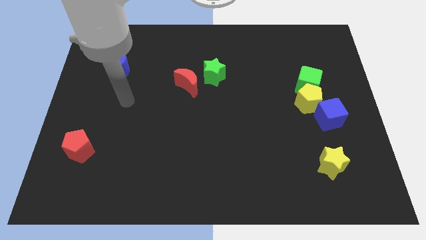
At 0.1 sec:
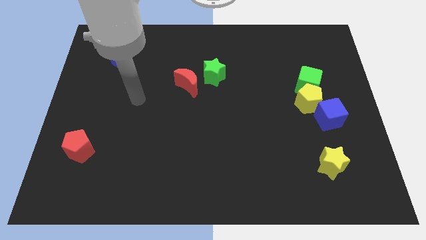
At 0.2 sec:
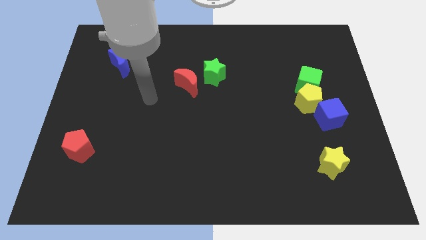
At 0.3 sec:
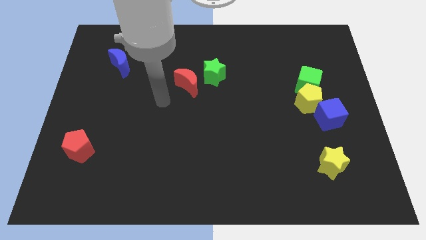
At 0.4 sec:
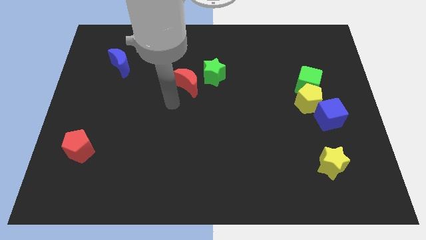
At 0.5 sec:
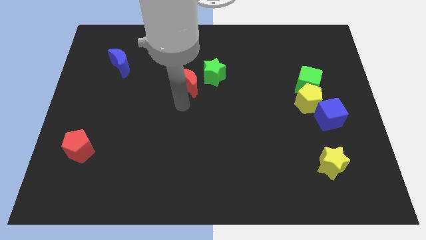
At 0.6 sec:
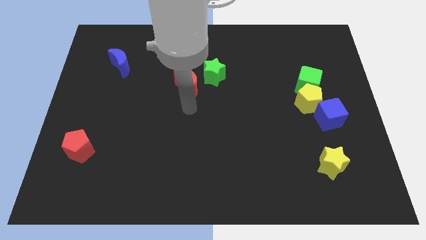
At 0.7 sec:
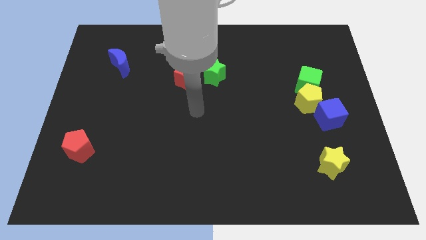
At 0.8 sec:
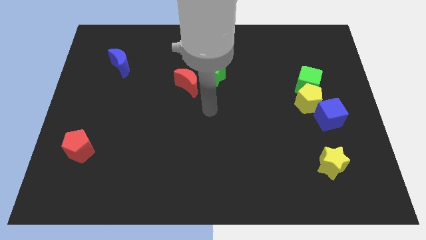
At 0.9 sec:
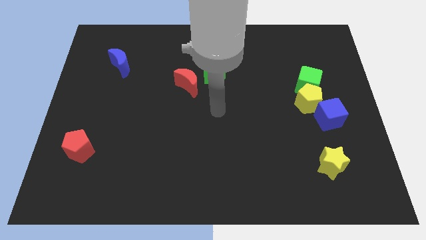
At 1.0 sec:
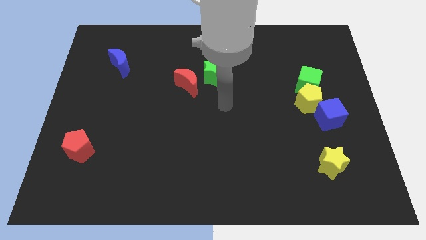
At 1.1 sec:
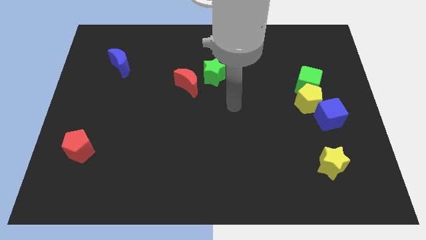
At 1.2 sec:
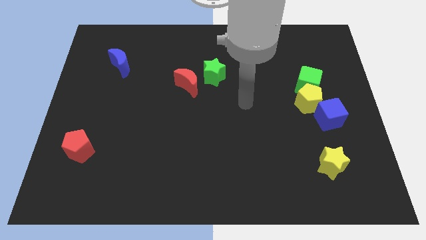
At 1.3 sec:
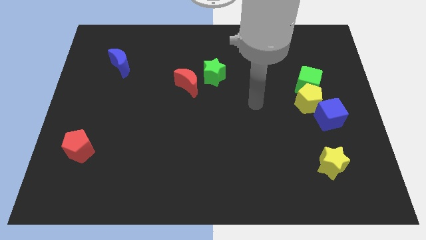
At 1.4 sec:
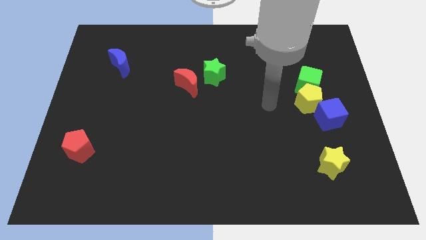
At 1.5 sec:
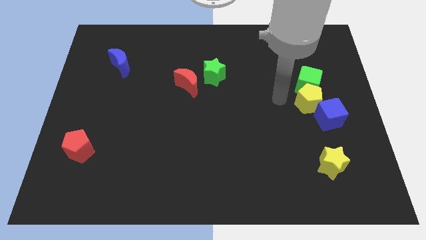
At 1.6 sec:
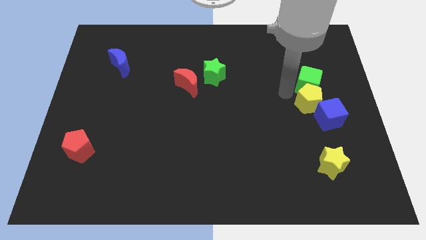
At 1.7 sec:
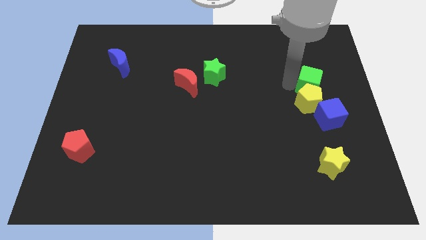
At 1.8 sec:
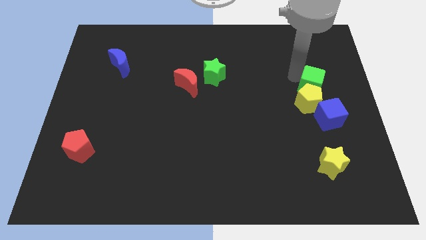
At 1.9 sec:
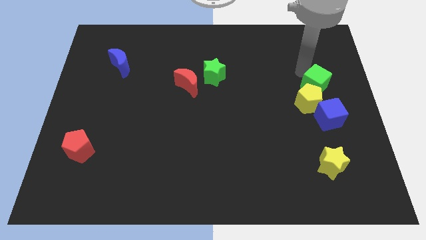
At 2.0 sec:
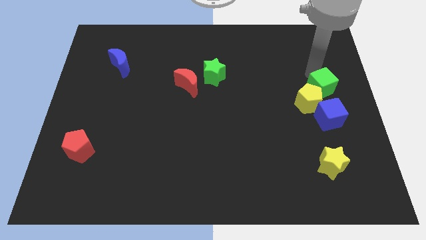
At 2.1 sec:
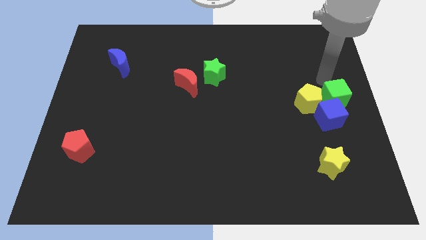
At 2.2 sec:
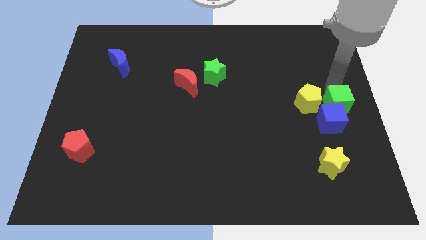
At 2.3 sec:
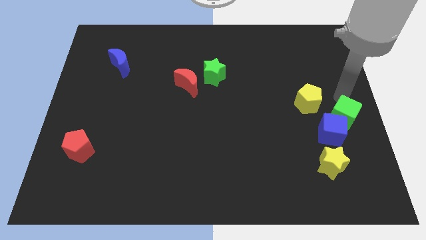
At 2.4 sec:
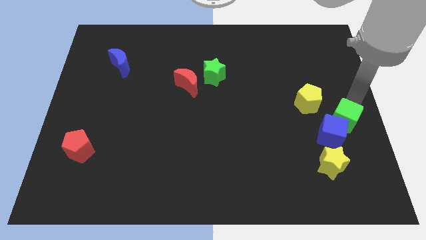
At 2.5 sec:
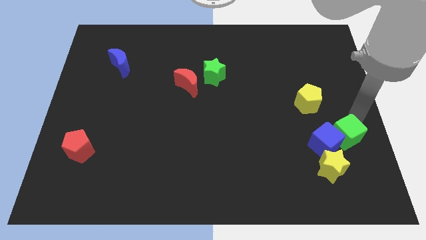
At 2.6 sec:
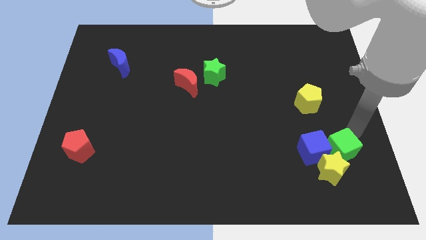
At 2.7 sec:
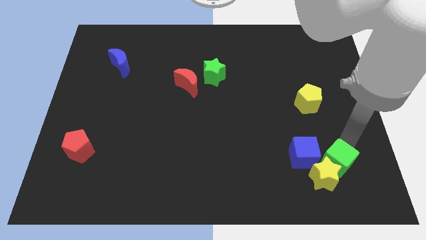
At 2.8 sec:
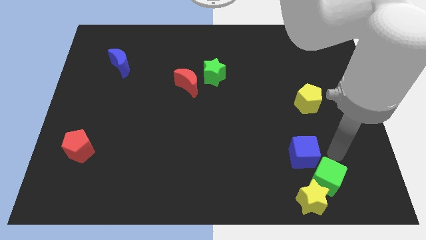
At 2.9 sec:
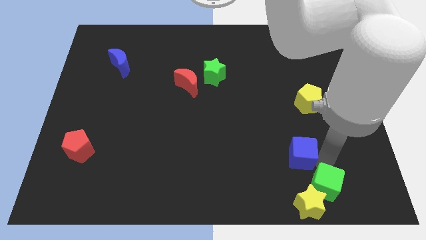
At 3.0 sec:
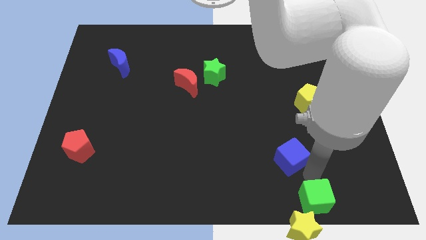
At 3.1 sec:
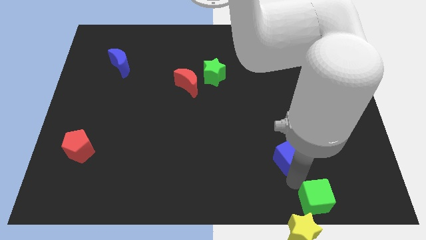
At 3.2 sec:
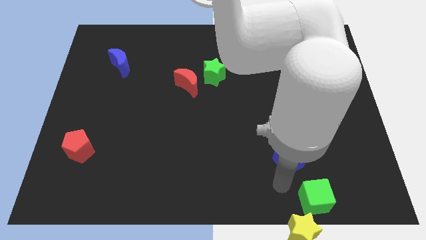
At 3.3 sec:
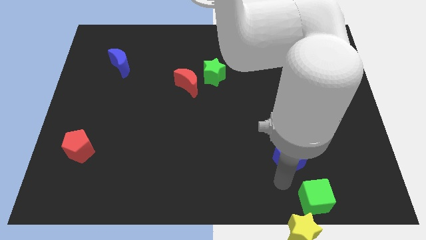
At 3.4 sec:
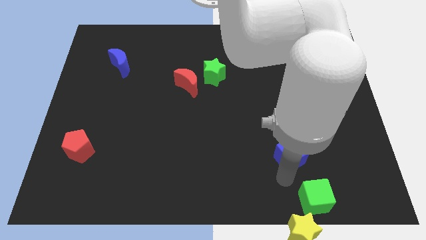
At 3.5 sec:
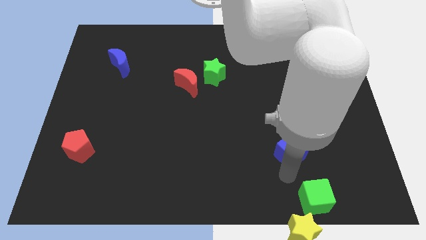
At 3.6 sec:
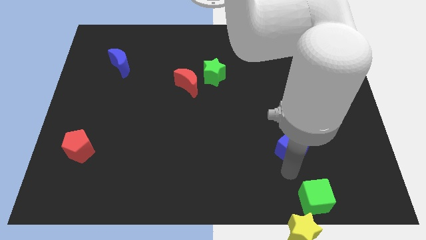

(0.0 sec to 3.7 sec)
slightly move the blue cube left

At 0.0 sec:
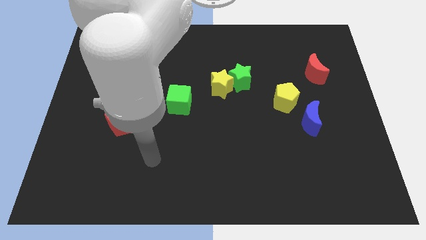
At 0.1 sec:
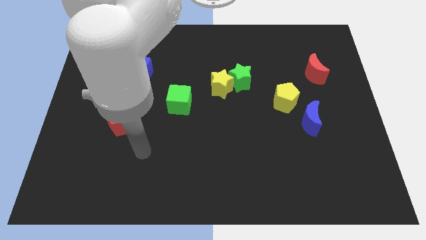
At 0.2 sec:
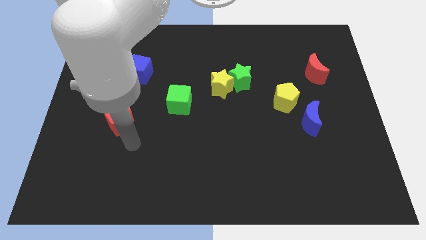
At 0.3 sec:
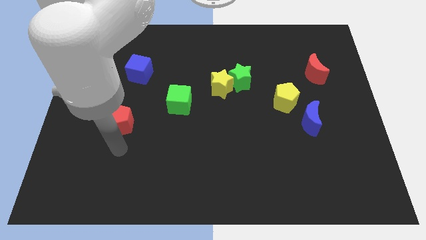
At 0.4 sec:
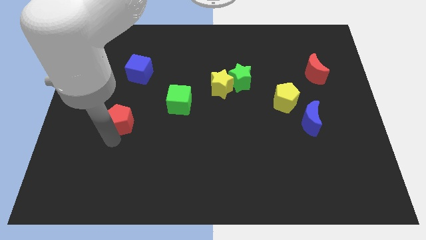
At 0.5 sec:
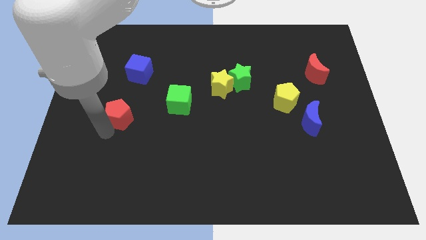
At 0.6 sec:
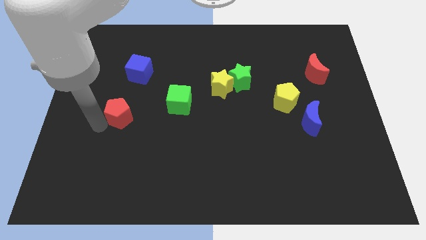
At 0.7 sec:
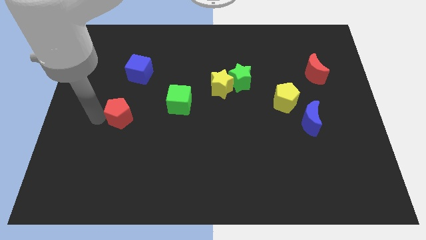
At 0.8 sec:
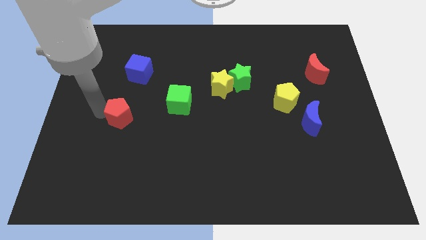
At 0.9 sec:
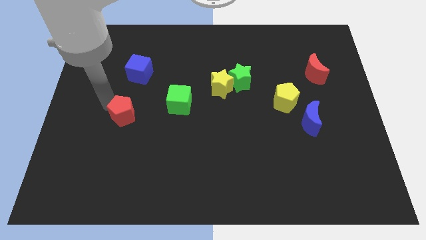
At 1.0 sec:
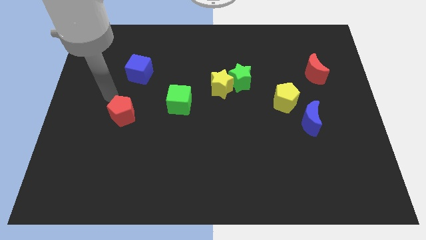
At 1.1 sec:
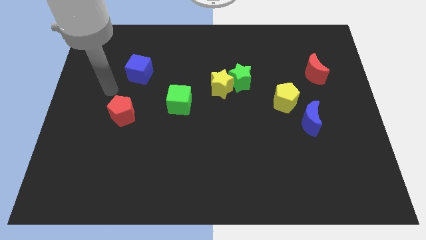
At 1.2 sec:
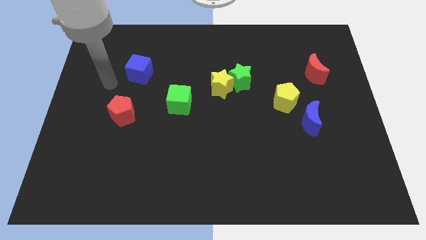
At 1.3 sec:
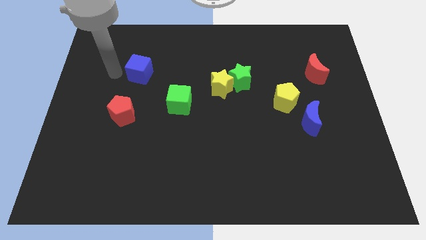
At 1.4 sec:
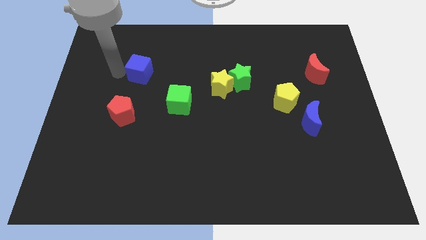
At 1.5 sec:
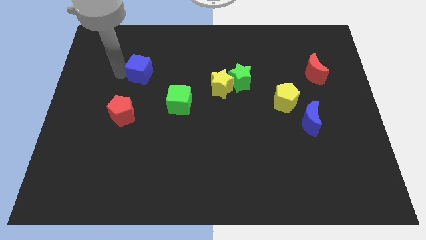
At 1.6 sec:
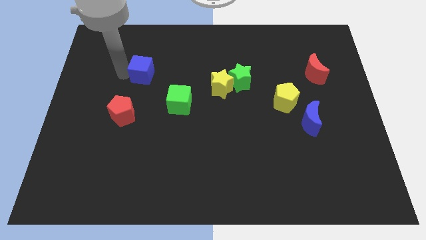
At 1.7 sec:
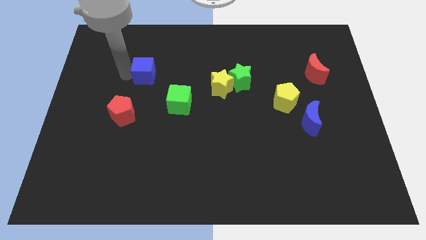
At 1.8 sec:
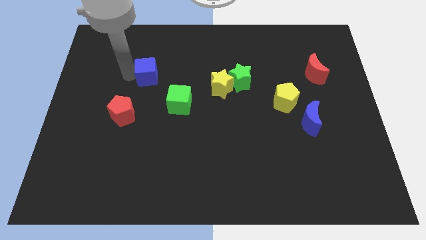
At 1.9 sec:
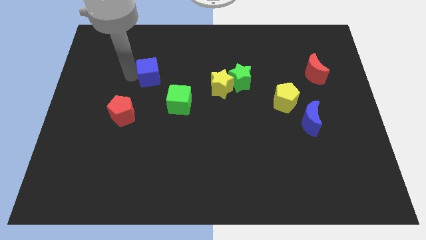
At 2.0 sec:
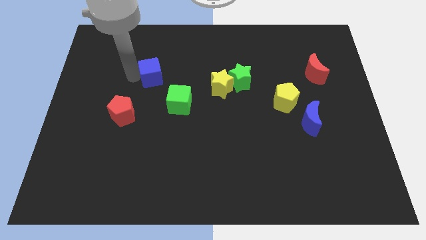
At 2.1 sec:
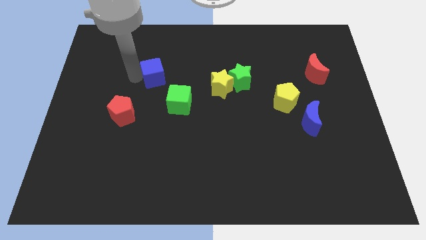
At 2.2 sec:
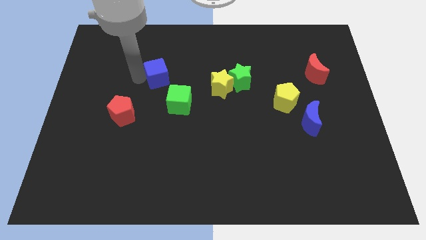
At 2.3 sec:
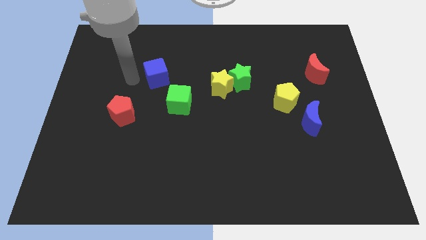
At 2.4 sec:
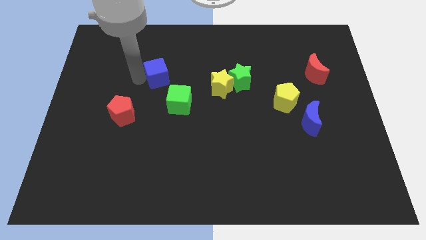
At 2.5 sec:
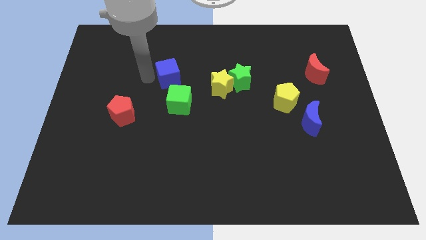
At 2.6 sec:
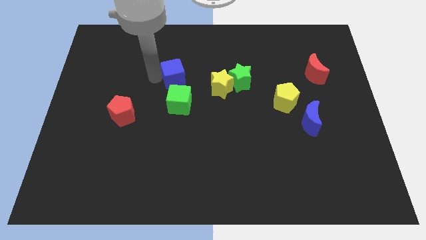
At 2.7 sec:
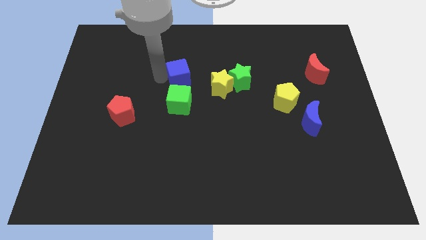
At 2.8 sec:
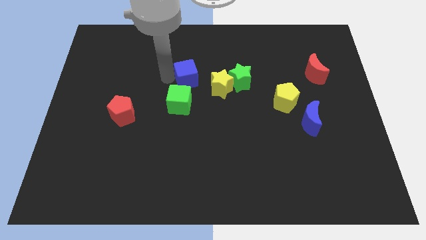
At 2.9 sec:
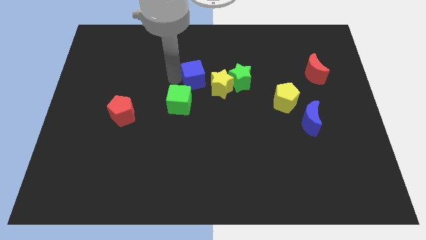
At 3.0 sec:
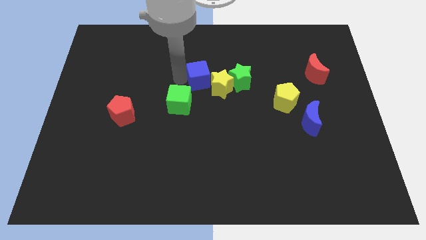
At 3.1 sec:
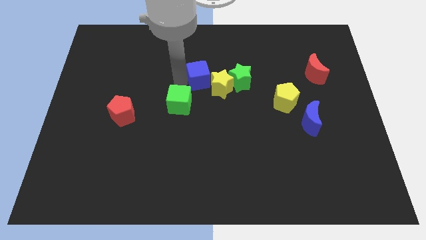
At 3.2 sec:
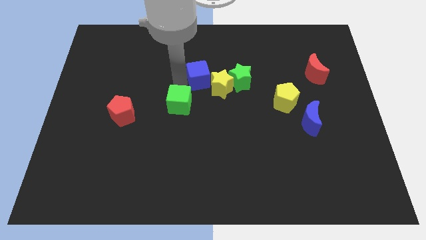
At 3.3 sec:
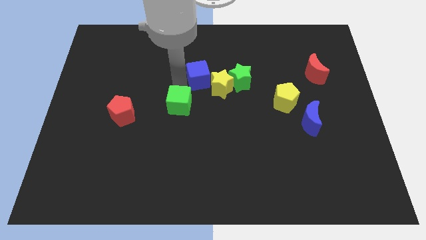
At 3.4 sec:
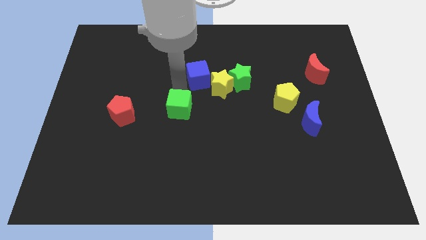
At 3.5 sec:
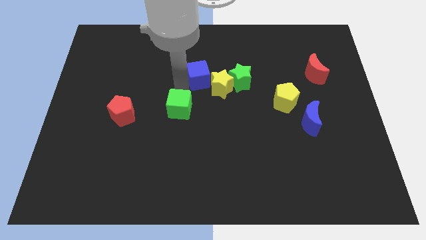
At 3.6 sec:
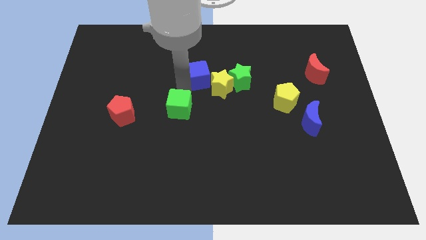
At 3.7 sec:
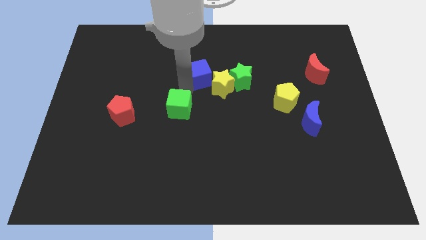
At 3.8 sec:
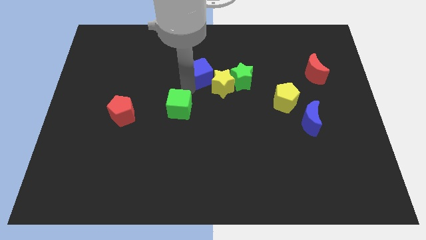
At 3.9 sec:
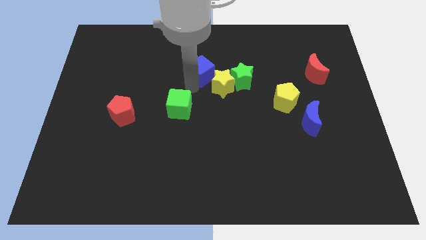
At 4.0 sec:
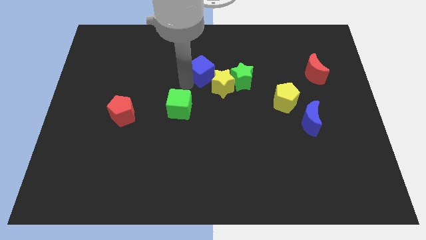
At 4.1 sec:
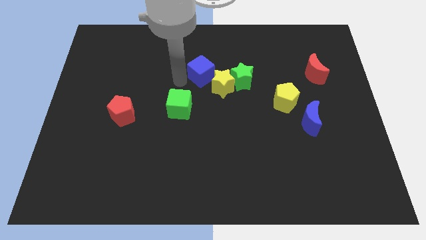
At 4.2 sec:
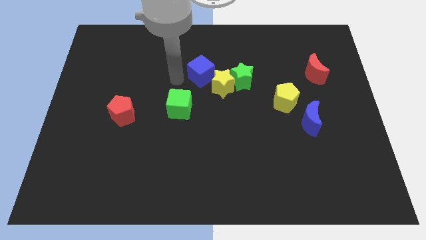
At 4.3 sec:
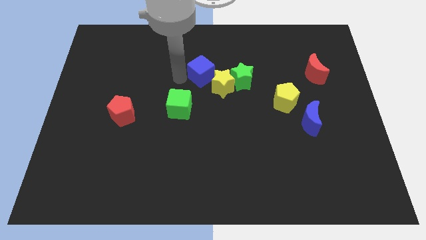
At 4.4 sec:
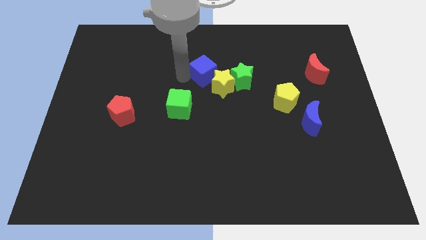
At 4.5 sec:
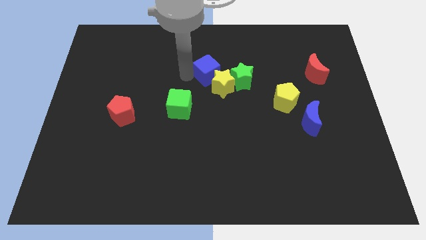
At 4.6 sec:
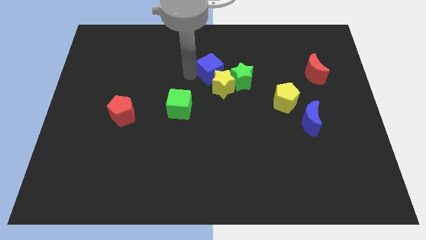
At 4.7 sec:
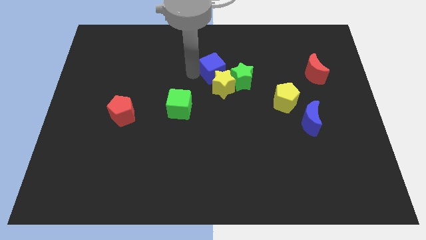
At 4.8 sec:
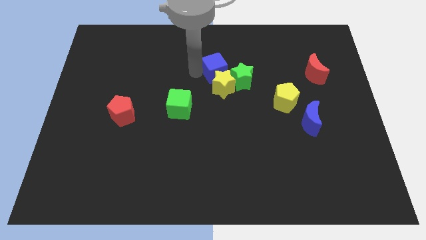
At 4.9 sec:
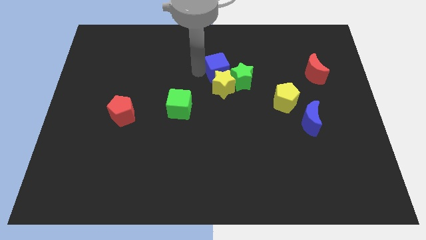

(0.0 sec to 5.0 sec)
move the blue cube right
